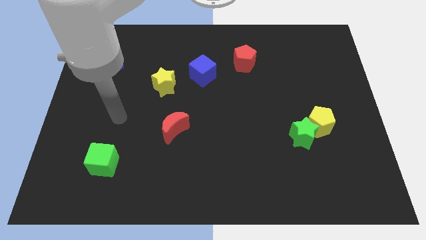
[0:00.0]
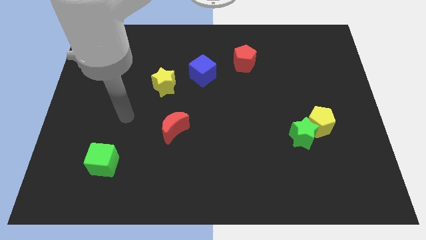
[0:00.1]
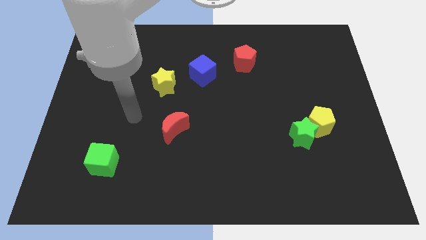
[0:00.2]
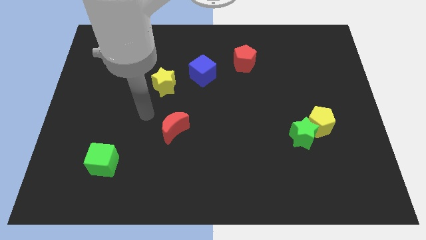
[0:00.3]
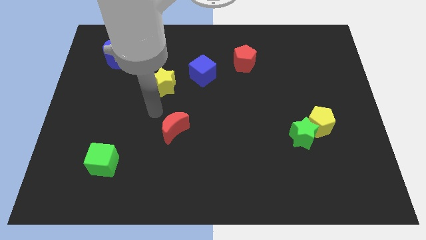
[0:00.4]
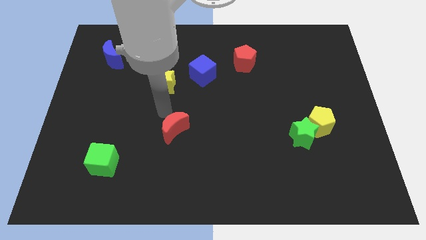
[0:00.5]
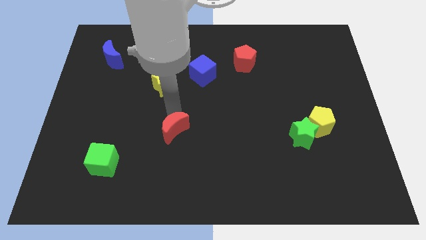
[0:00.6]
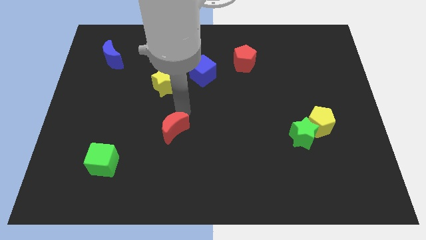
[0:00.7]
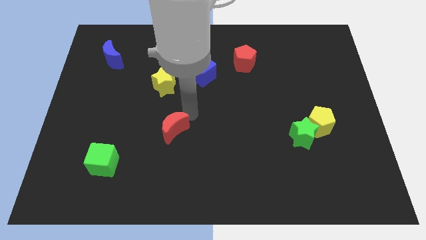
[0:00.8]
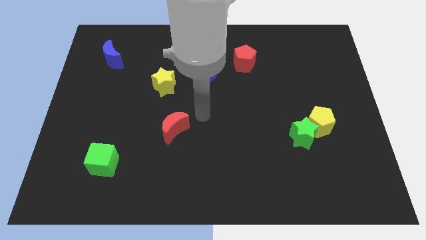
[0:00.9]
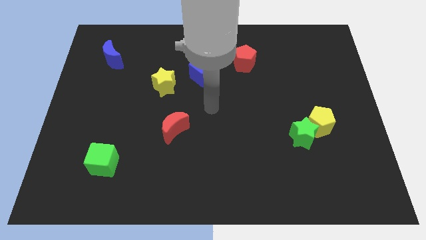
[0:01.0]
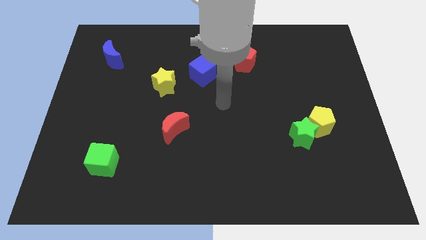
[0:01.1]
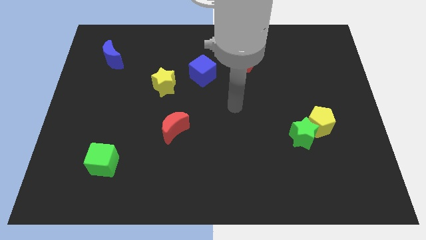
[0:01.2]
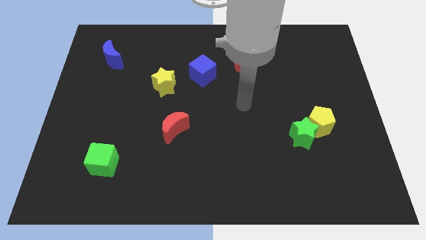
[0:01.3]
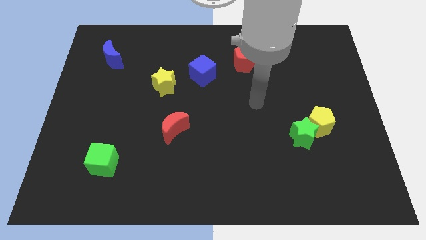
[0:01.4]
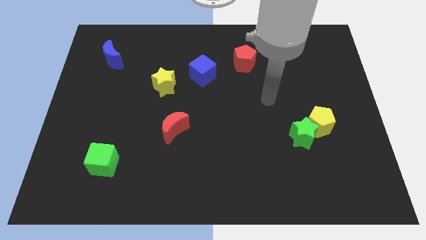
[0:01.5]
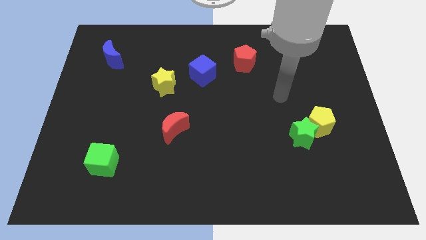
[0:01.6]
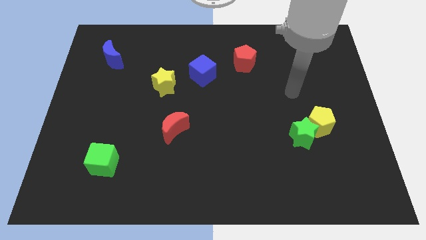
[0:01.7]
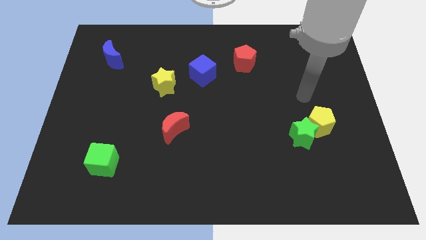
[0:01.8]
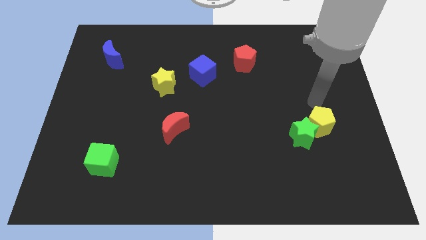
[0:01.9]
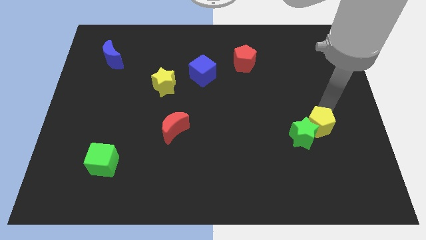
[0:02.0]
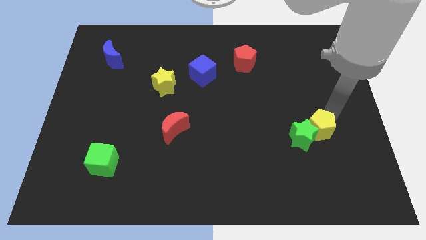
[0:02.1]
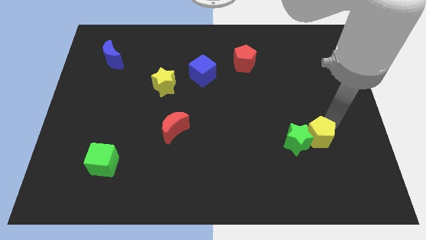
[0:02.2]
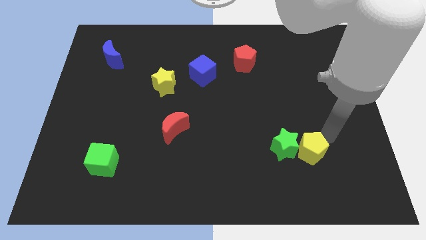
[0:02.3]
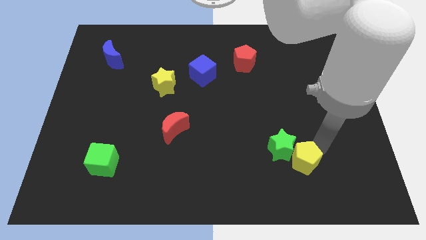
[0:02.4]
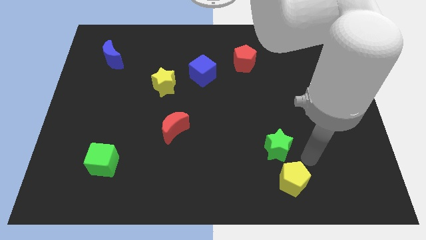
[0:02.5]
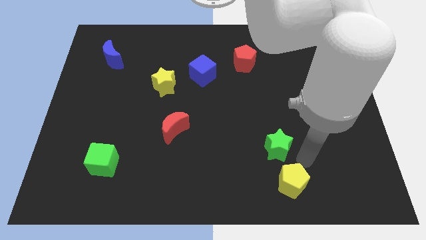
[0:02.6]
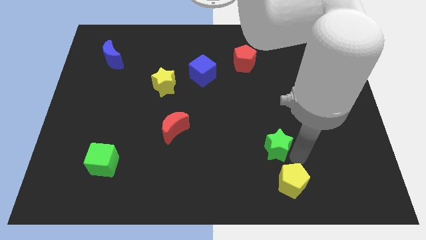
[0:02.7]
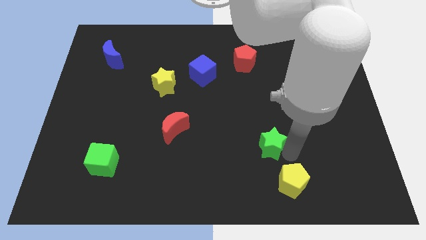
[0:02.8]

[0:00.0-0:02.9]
slide the green star slightly to the left

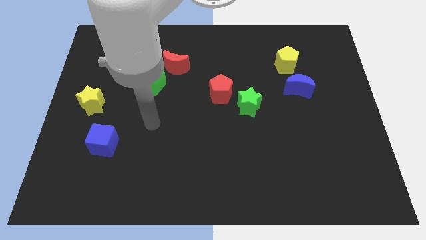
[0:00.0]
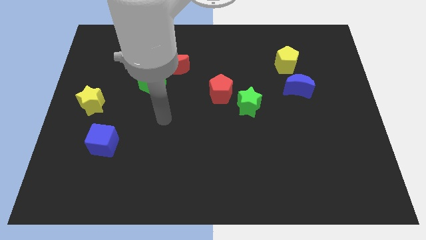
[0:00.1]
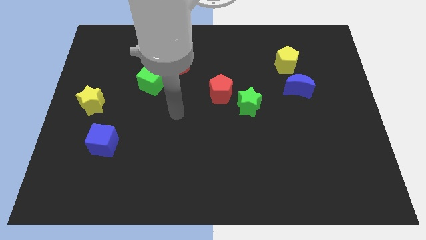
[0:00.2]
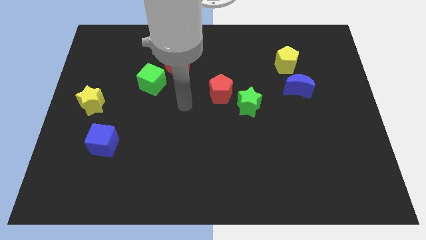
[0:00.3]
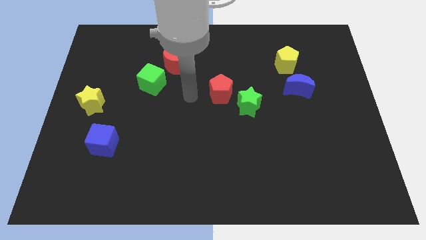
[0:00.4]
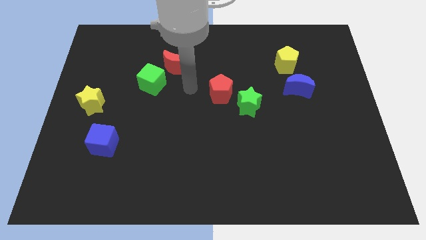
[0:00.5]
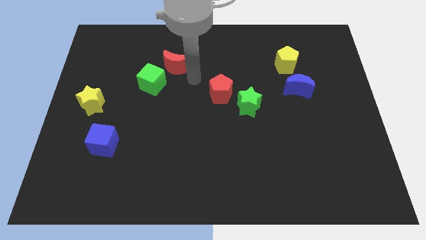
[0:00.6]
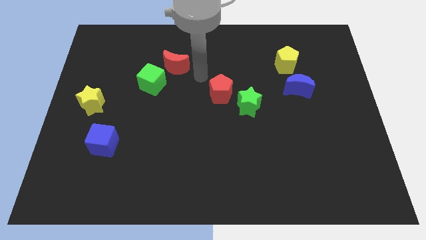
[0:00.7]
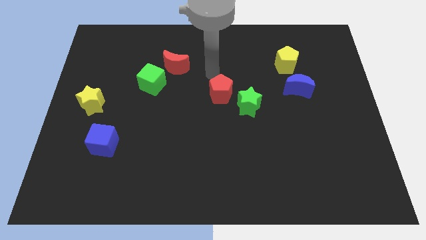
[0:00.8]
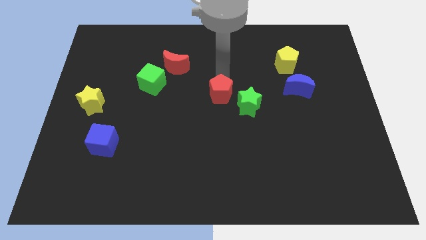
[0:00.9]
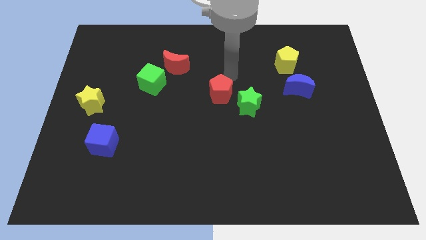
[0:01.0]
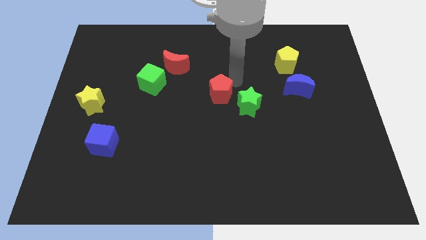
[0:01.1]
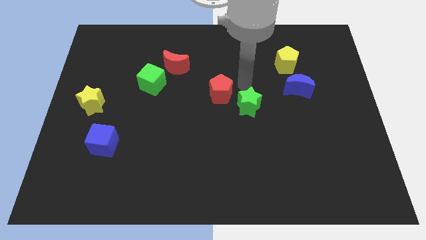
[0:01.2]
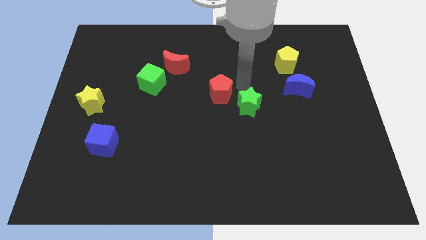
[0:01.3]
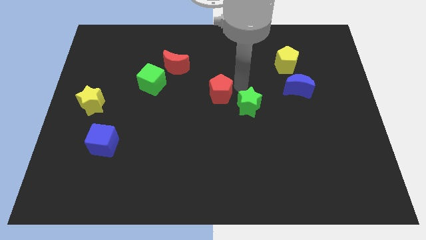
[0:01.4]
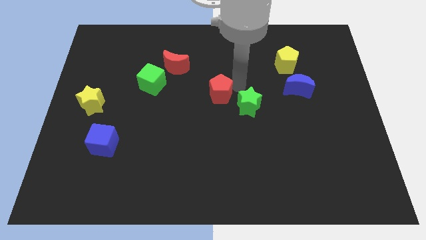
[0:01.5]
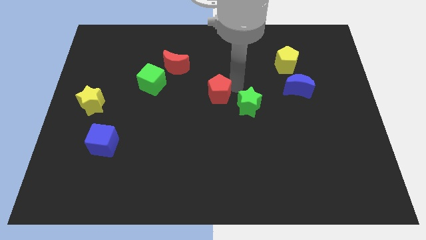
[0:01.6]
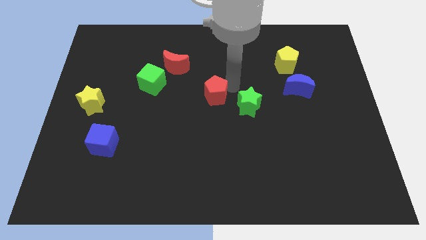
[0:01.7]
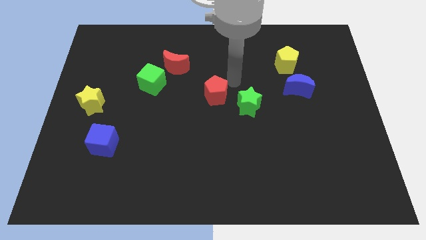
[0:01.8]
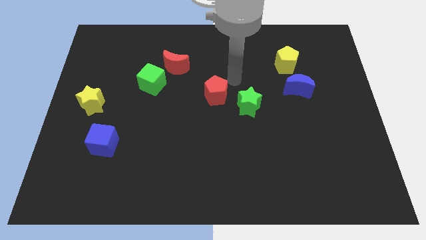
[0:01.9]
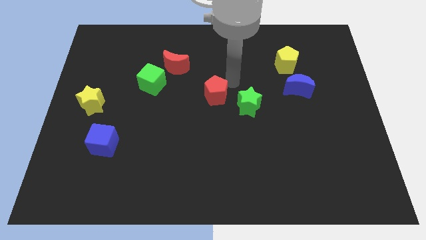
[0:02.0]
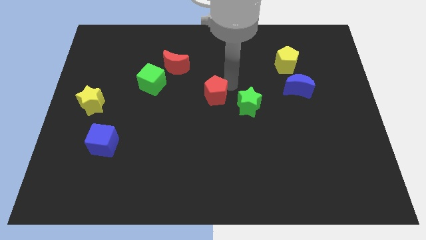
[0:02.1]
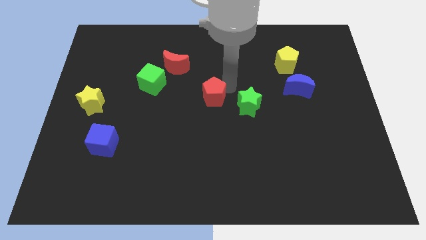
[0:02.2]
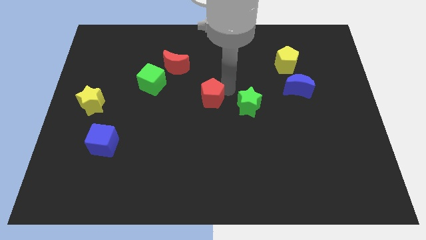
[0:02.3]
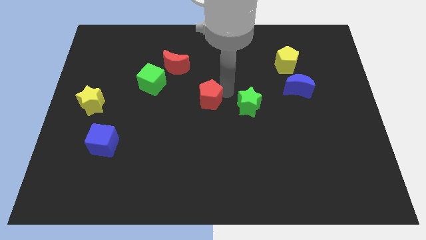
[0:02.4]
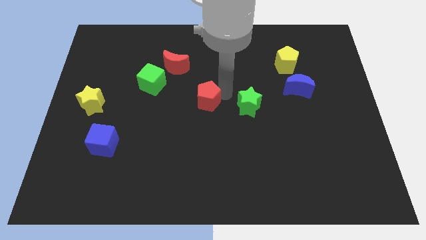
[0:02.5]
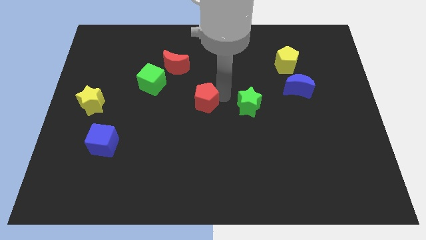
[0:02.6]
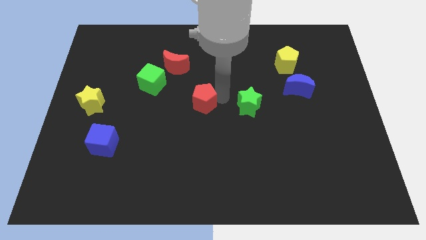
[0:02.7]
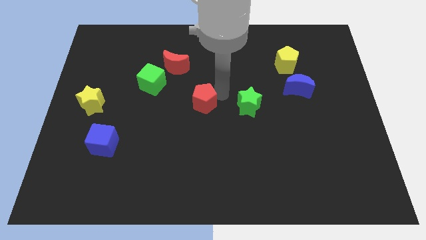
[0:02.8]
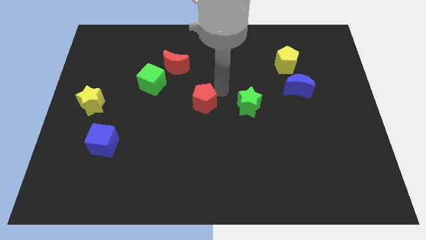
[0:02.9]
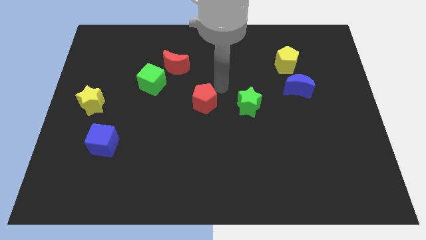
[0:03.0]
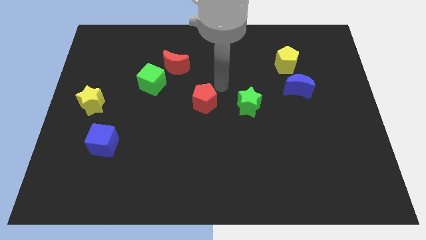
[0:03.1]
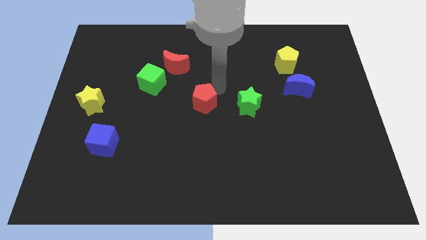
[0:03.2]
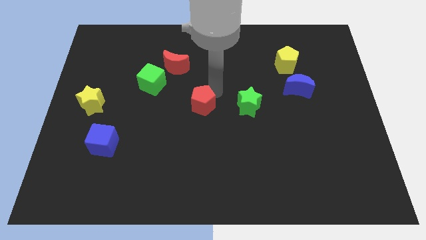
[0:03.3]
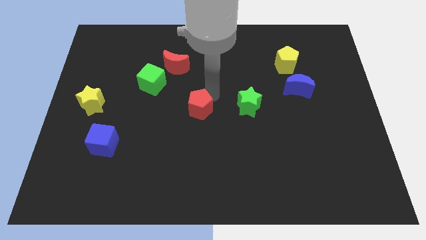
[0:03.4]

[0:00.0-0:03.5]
push the red pentagon down and left slightly

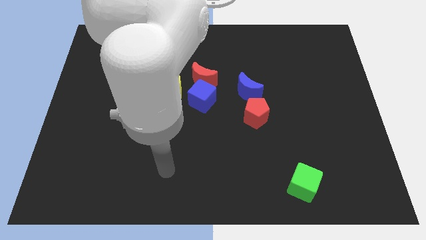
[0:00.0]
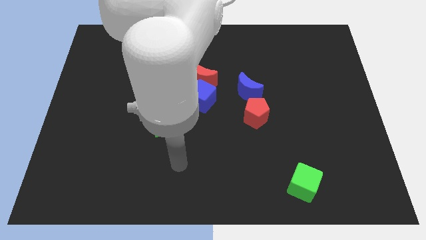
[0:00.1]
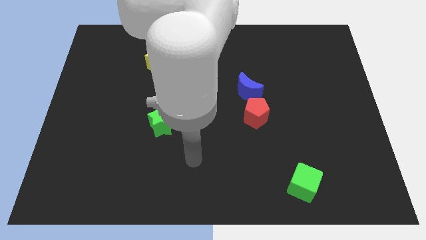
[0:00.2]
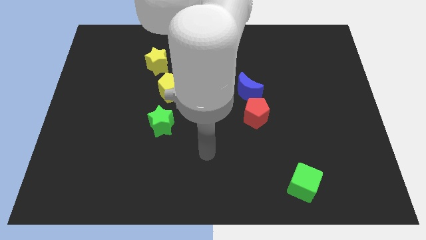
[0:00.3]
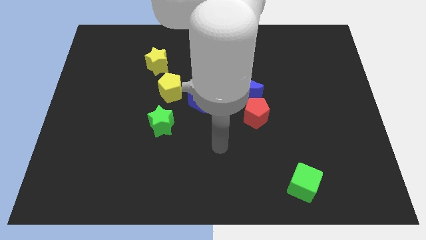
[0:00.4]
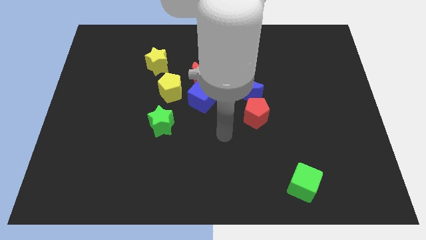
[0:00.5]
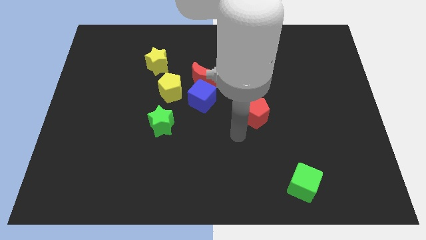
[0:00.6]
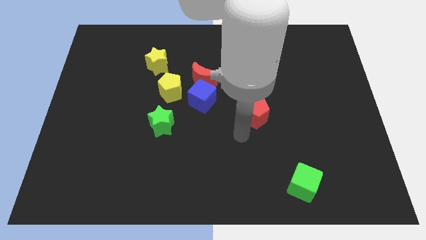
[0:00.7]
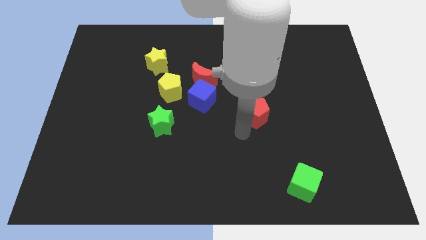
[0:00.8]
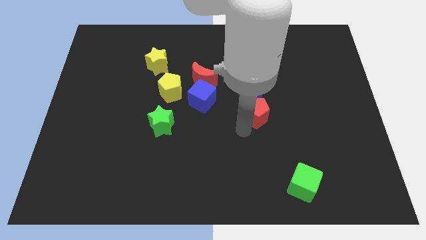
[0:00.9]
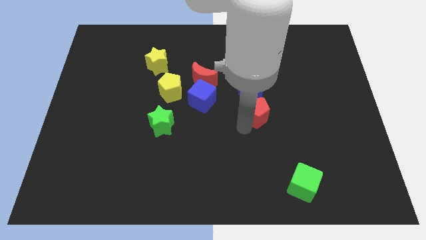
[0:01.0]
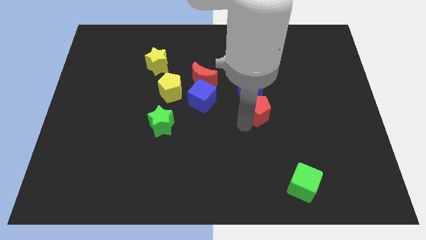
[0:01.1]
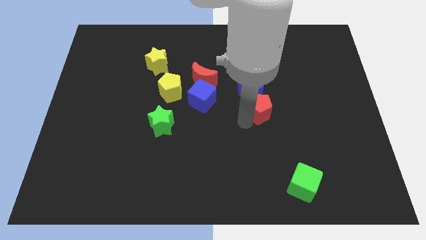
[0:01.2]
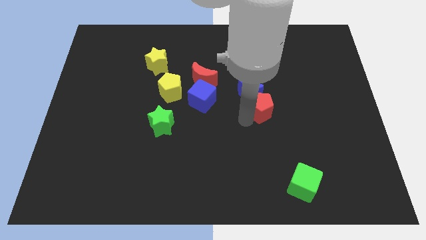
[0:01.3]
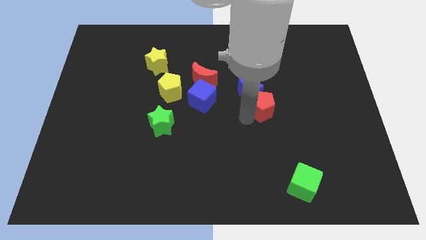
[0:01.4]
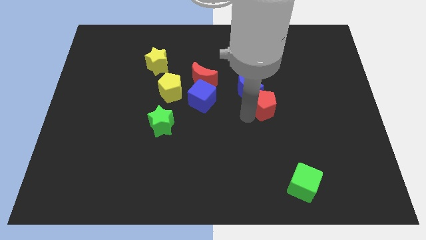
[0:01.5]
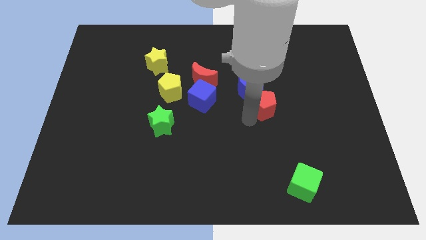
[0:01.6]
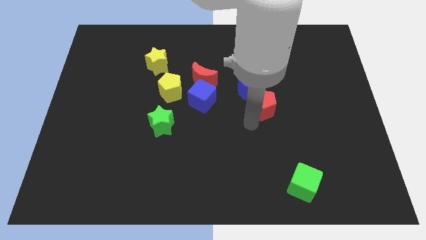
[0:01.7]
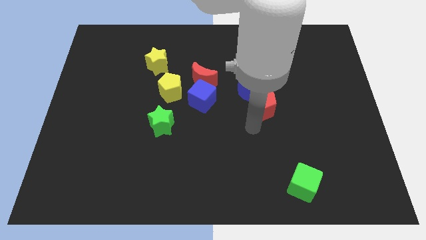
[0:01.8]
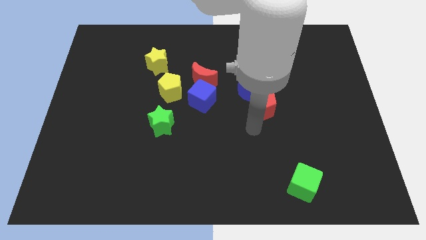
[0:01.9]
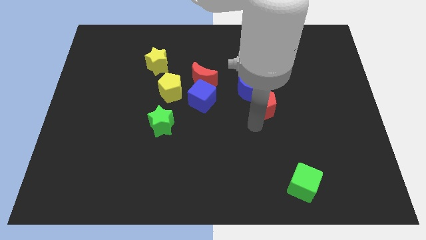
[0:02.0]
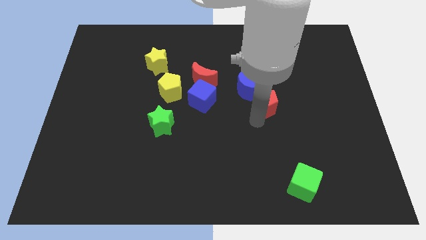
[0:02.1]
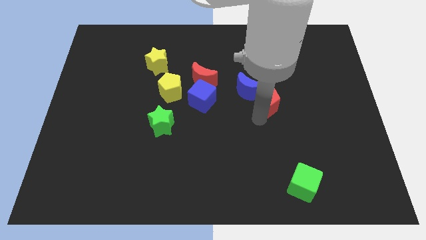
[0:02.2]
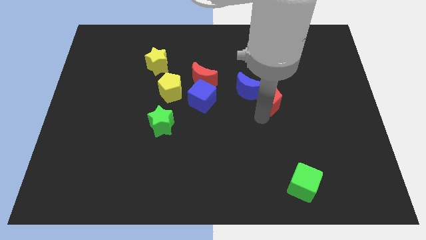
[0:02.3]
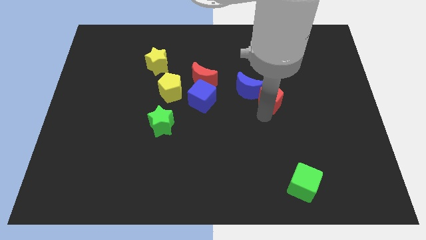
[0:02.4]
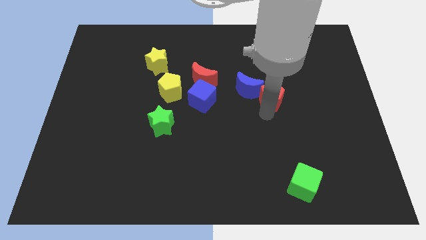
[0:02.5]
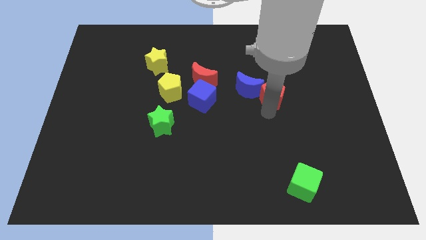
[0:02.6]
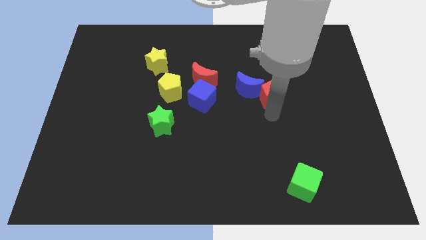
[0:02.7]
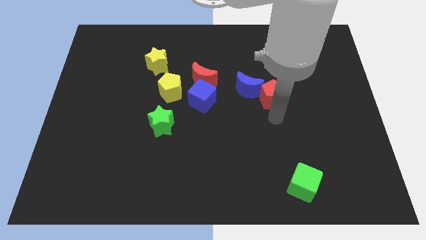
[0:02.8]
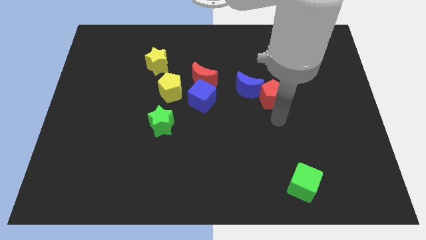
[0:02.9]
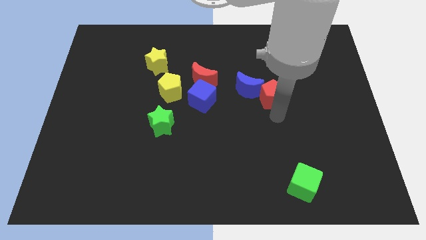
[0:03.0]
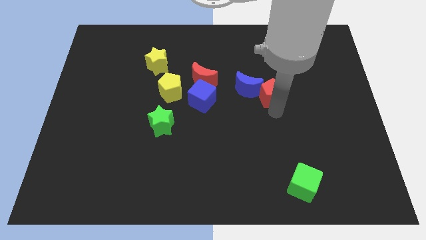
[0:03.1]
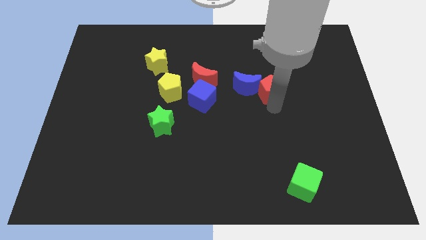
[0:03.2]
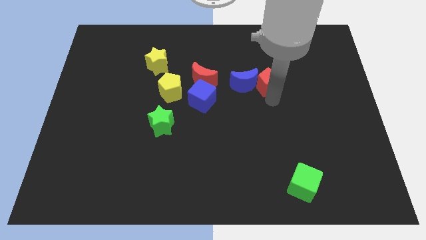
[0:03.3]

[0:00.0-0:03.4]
slightly move the red pentagon upwards
